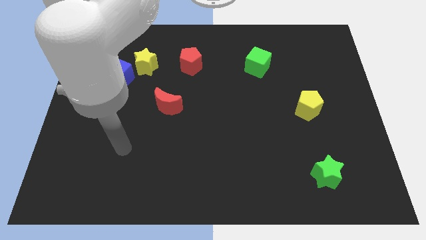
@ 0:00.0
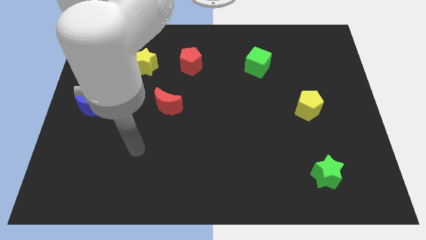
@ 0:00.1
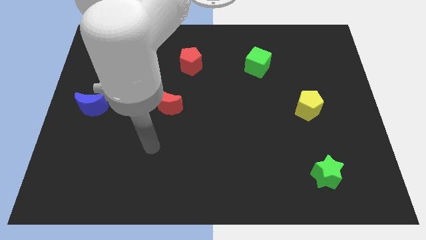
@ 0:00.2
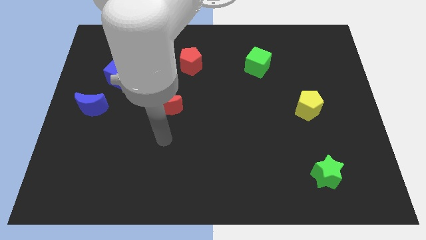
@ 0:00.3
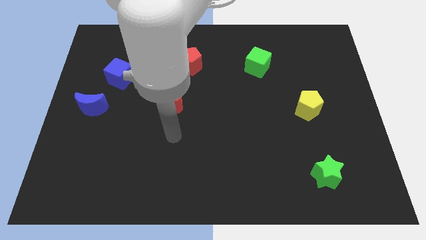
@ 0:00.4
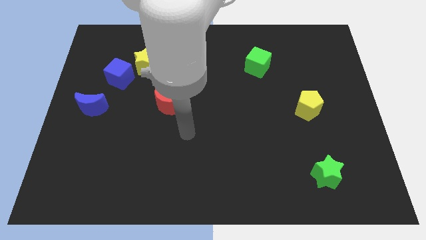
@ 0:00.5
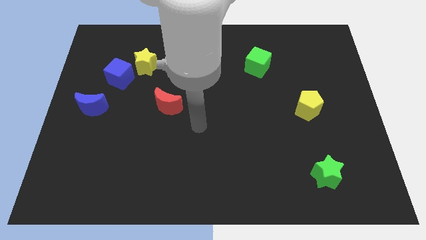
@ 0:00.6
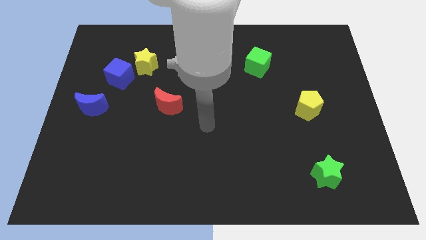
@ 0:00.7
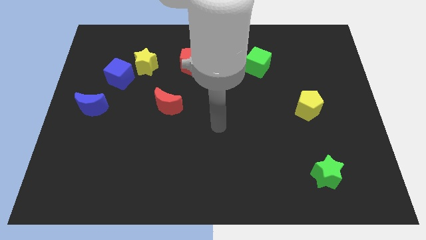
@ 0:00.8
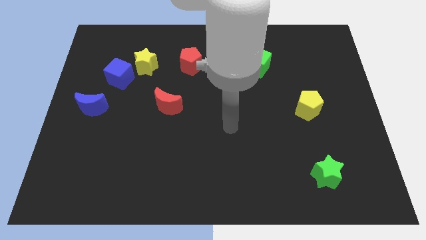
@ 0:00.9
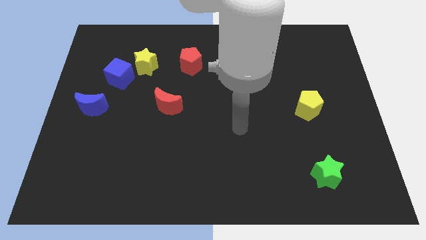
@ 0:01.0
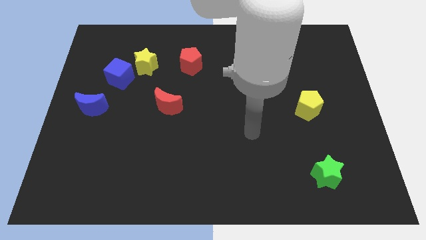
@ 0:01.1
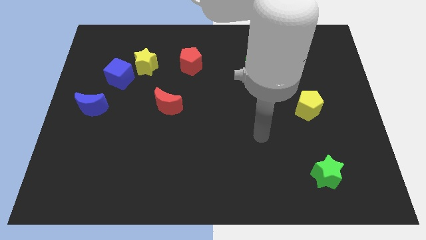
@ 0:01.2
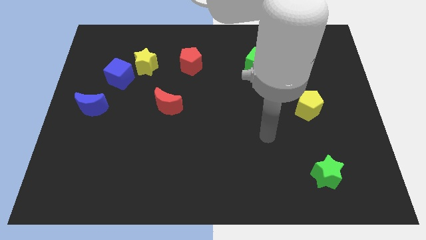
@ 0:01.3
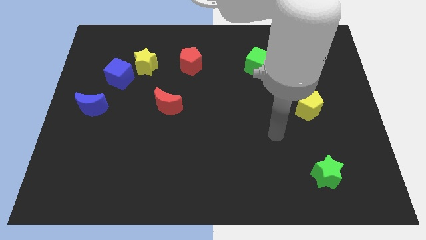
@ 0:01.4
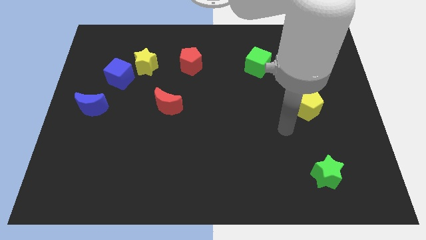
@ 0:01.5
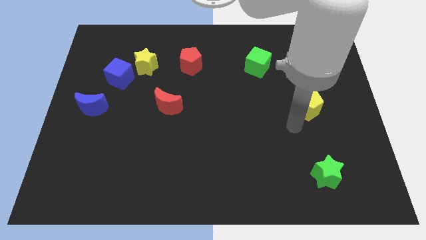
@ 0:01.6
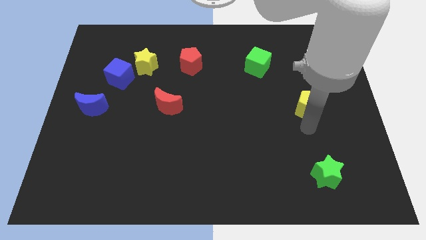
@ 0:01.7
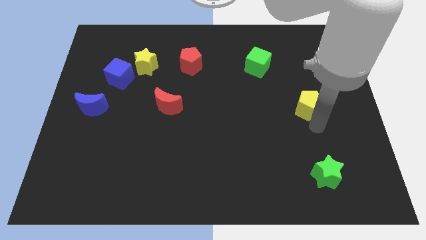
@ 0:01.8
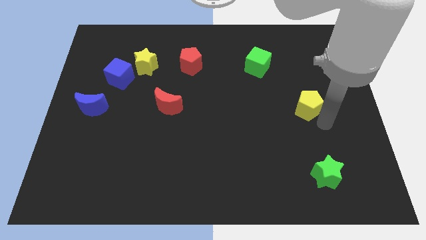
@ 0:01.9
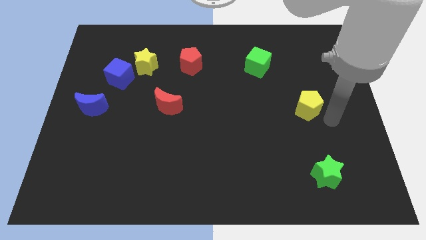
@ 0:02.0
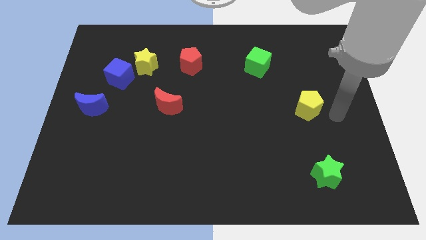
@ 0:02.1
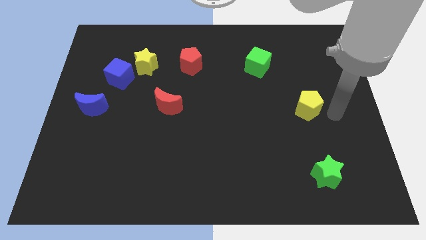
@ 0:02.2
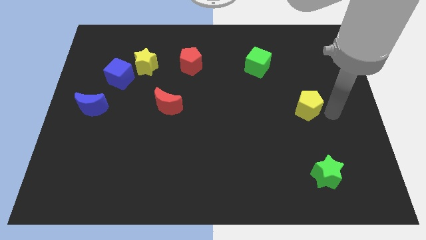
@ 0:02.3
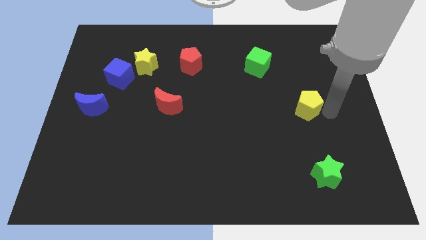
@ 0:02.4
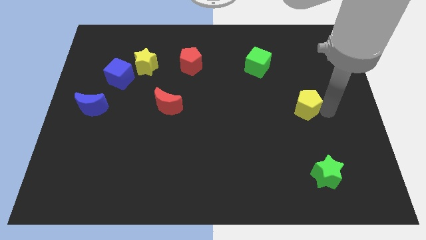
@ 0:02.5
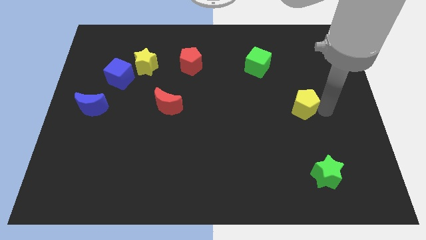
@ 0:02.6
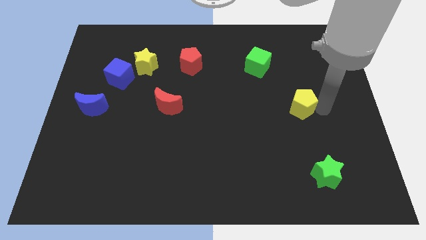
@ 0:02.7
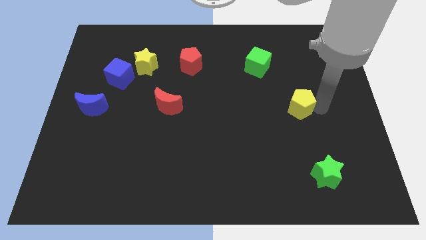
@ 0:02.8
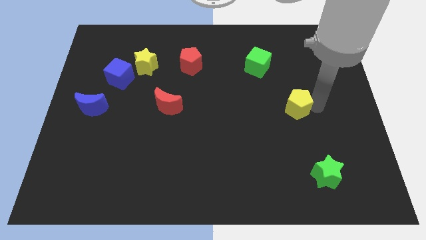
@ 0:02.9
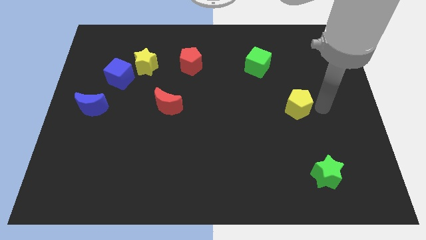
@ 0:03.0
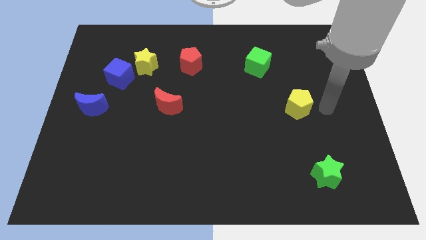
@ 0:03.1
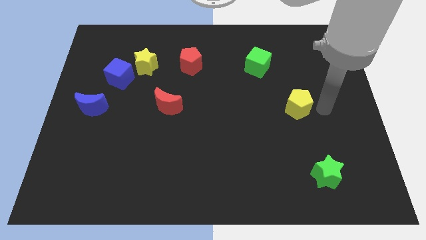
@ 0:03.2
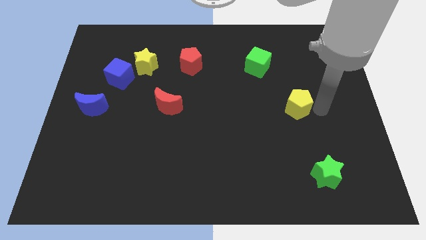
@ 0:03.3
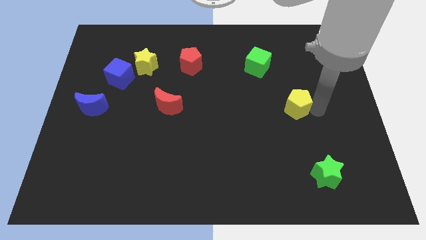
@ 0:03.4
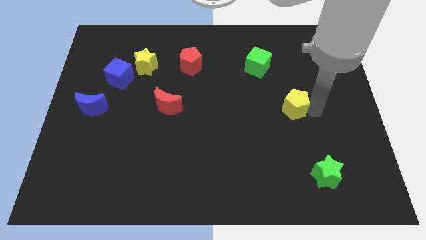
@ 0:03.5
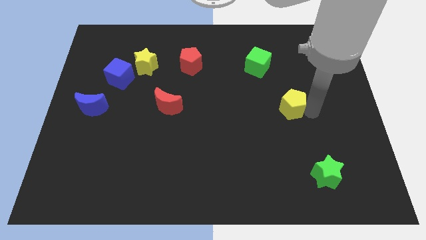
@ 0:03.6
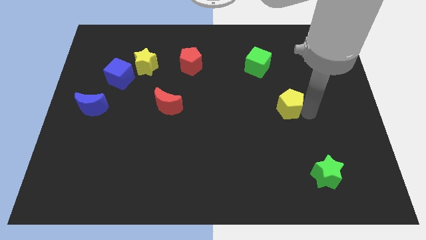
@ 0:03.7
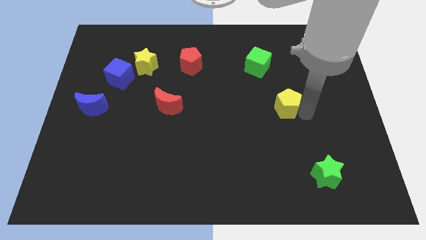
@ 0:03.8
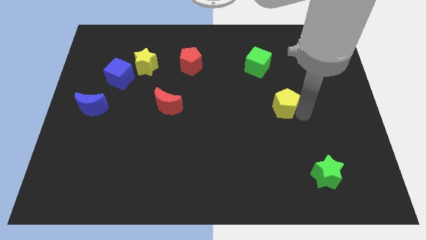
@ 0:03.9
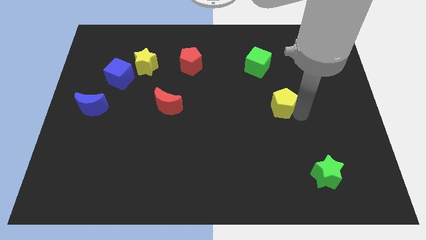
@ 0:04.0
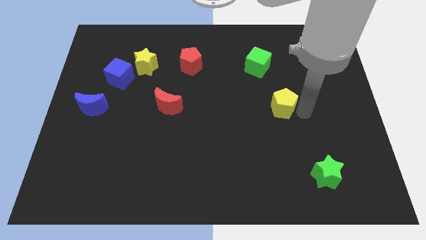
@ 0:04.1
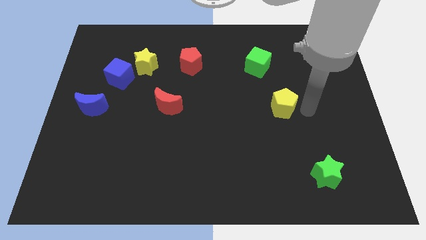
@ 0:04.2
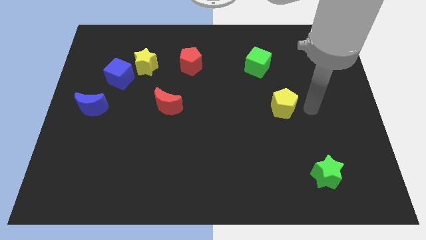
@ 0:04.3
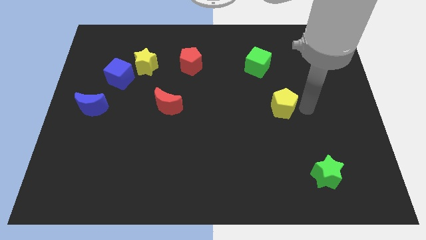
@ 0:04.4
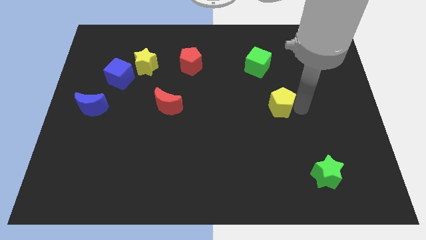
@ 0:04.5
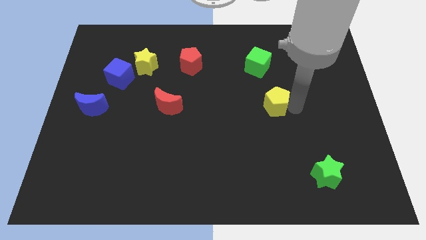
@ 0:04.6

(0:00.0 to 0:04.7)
move the yellow pentagon a little bit to the left

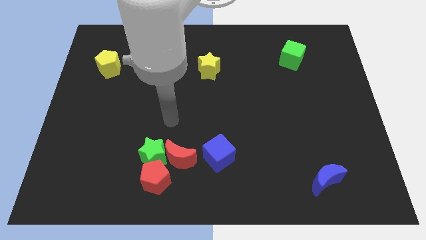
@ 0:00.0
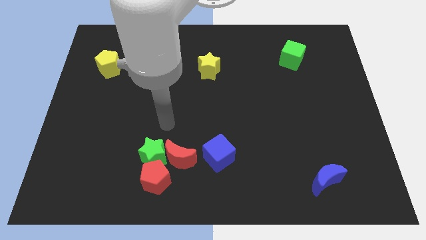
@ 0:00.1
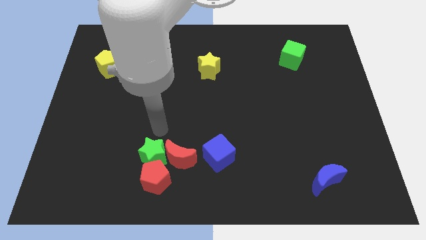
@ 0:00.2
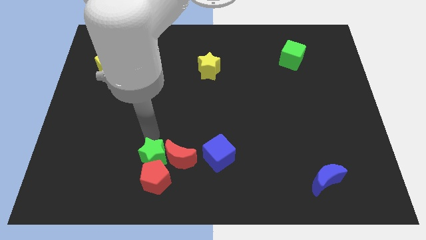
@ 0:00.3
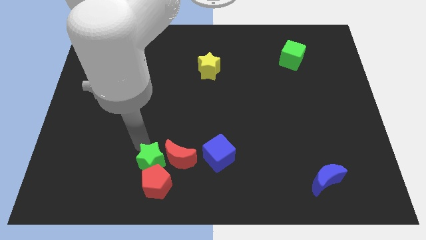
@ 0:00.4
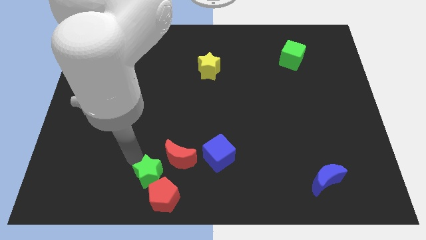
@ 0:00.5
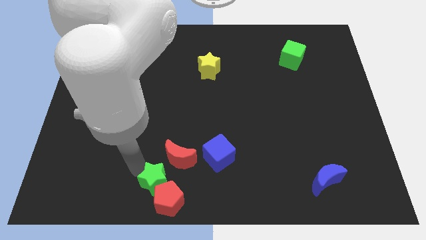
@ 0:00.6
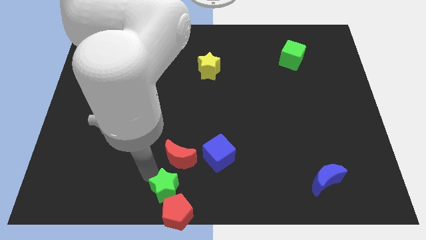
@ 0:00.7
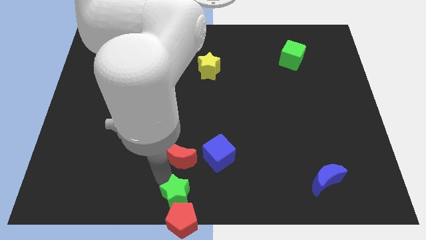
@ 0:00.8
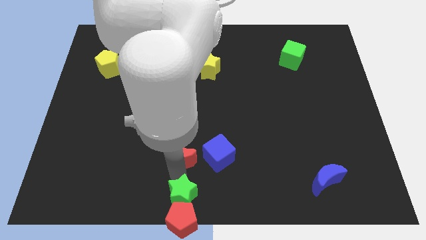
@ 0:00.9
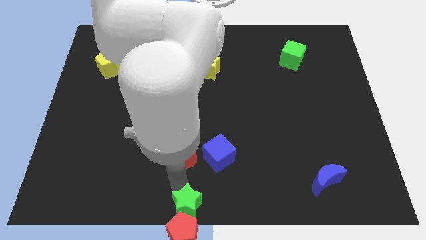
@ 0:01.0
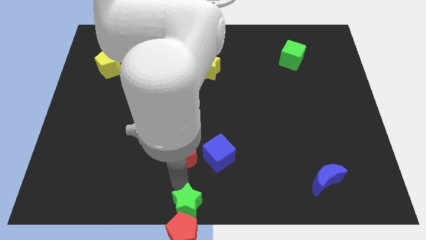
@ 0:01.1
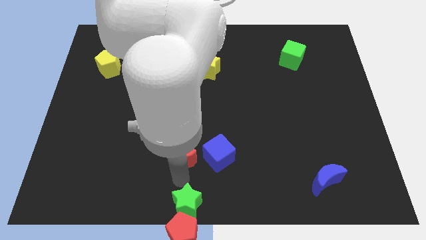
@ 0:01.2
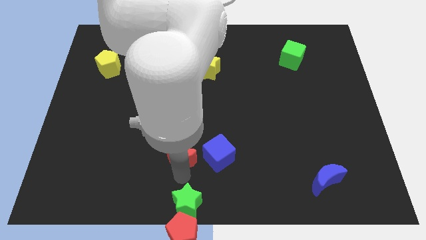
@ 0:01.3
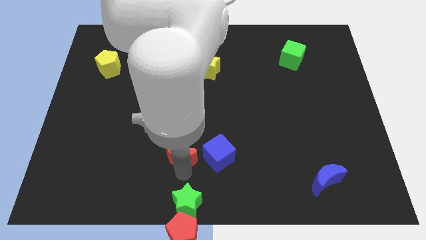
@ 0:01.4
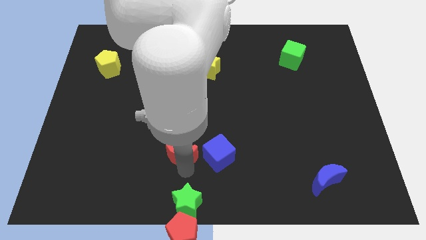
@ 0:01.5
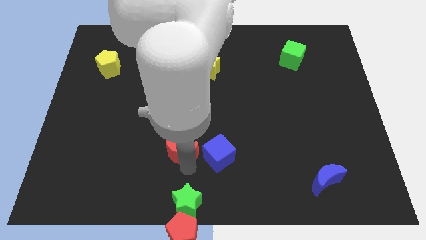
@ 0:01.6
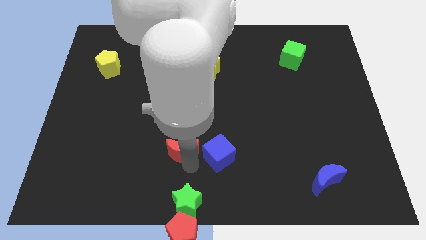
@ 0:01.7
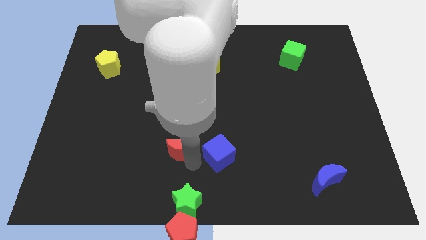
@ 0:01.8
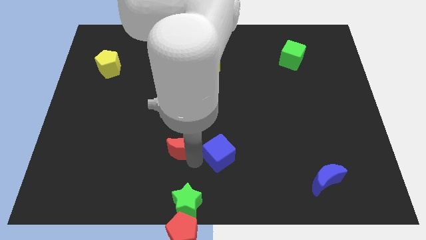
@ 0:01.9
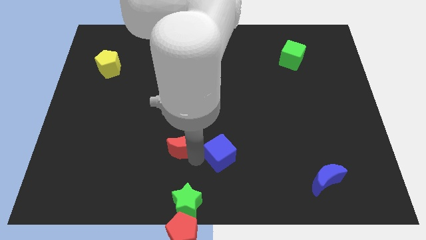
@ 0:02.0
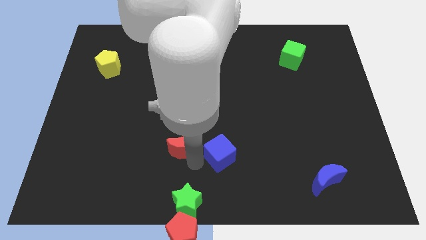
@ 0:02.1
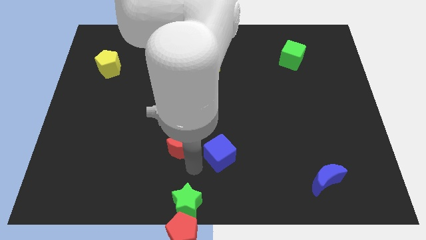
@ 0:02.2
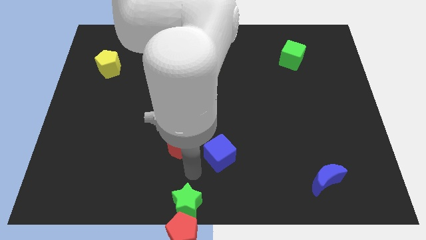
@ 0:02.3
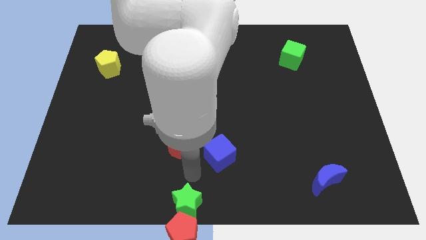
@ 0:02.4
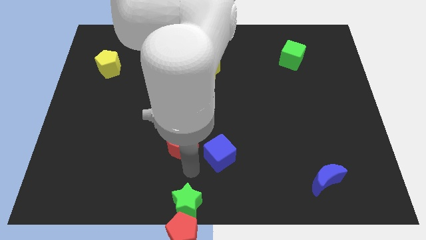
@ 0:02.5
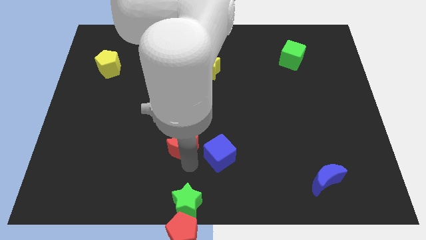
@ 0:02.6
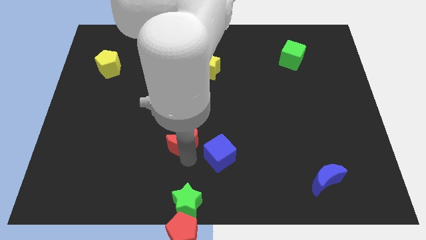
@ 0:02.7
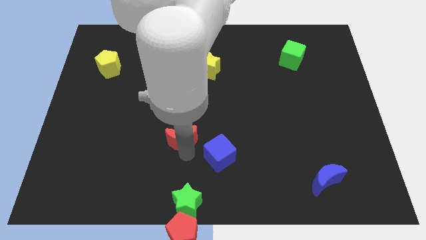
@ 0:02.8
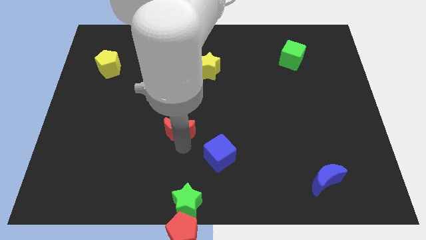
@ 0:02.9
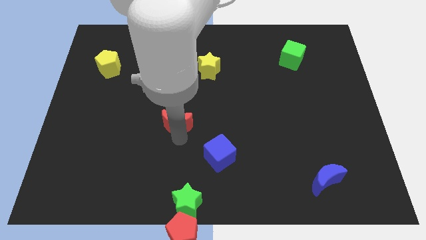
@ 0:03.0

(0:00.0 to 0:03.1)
move the red moon a little upwards
